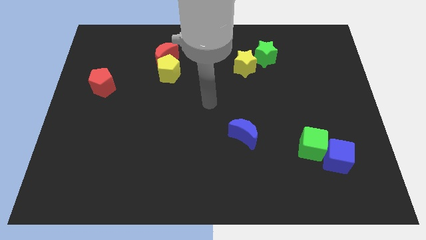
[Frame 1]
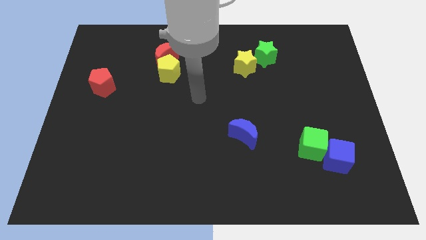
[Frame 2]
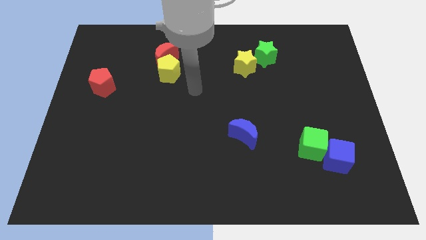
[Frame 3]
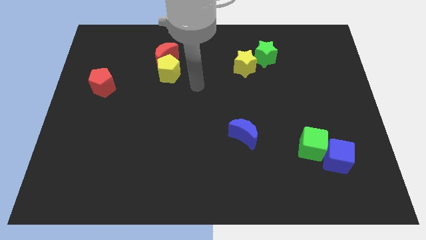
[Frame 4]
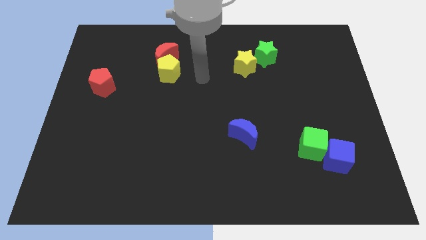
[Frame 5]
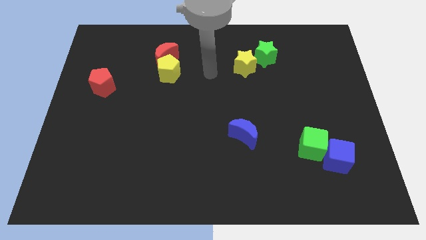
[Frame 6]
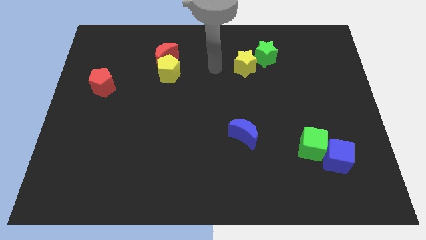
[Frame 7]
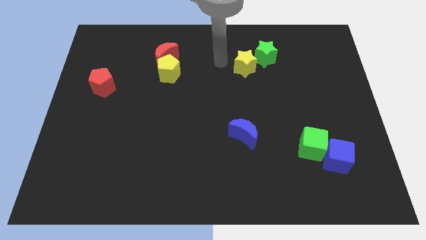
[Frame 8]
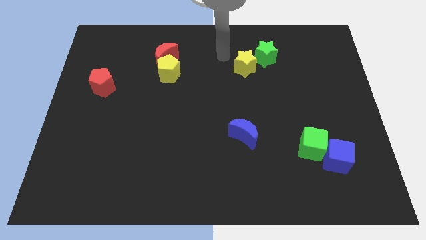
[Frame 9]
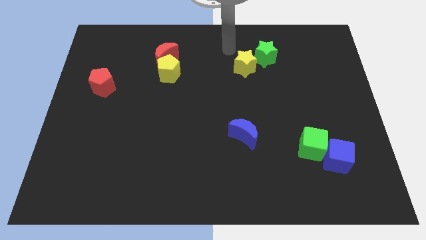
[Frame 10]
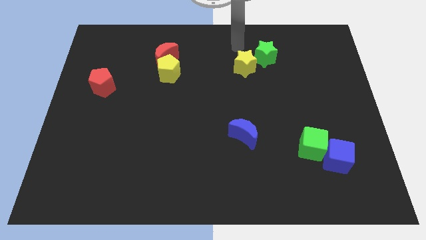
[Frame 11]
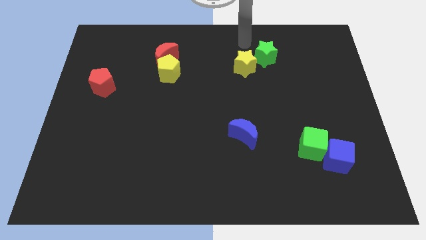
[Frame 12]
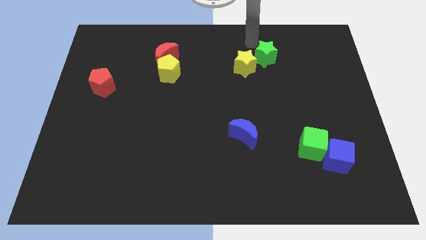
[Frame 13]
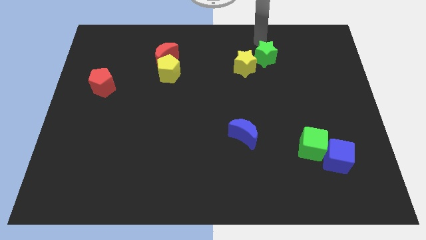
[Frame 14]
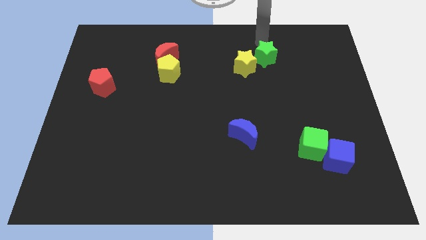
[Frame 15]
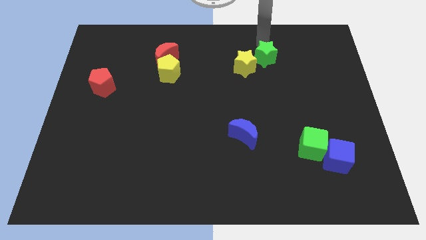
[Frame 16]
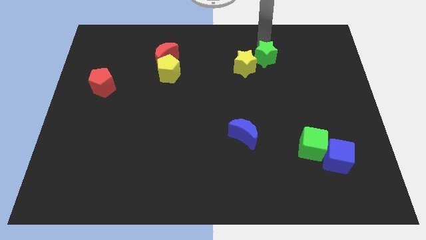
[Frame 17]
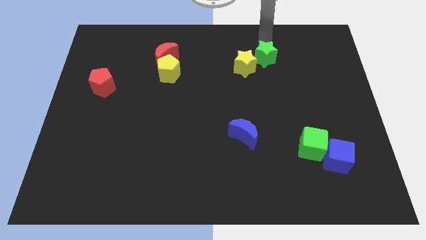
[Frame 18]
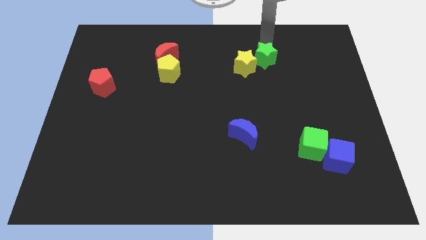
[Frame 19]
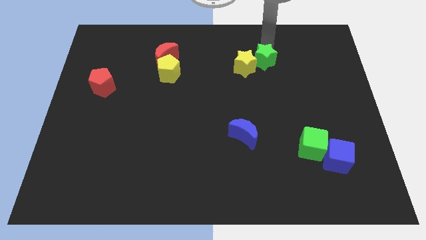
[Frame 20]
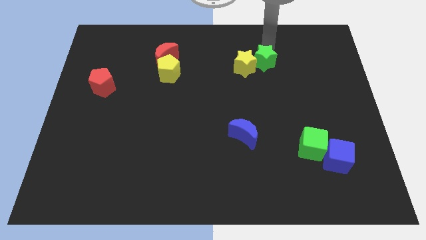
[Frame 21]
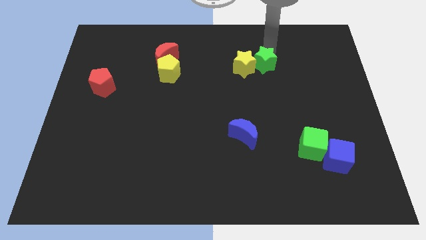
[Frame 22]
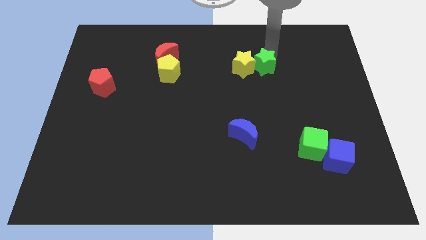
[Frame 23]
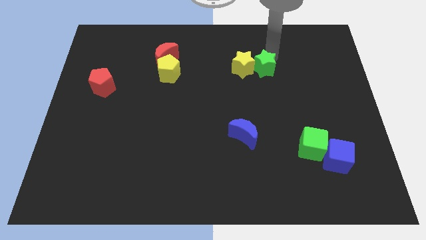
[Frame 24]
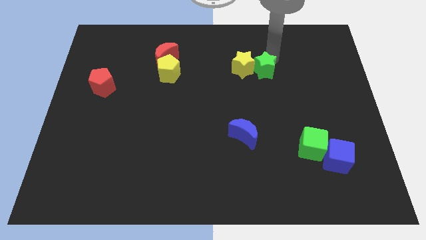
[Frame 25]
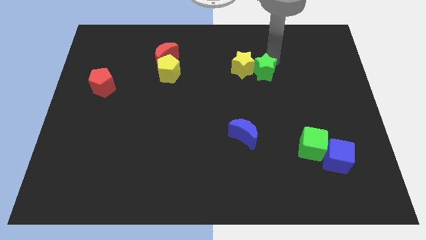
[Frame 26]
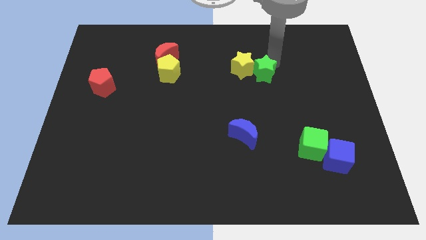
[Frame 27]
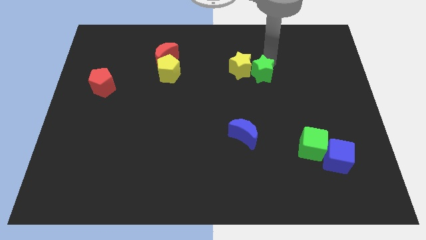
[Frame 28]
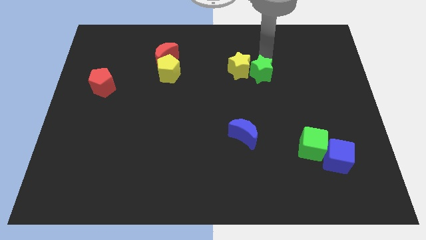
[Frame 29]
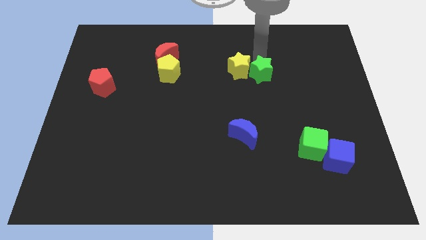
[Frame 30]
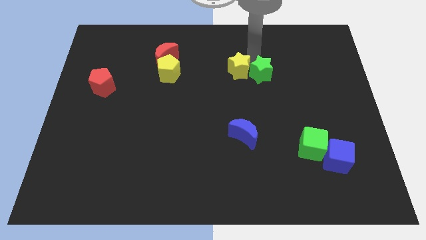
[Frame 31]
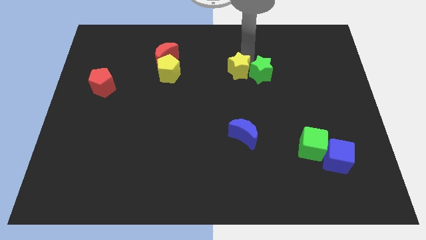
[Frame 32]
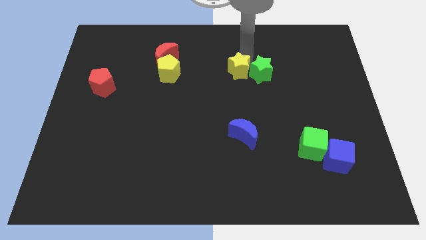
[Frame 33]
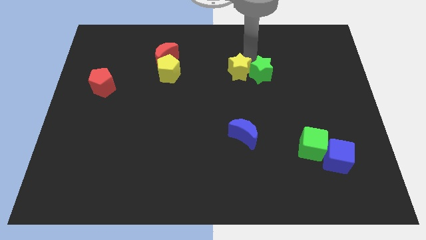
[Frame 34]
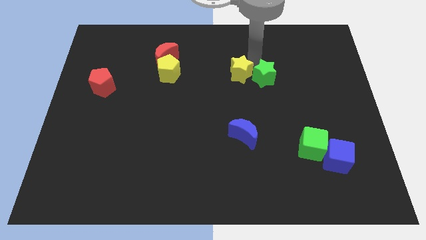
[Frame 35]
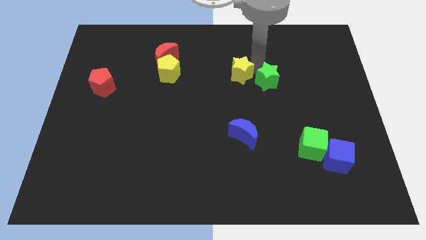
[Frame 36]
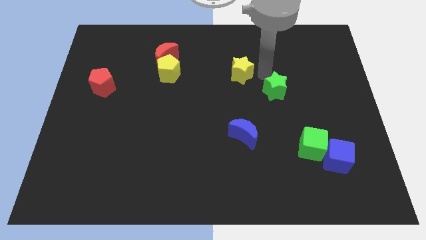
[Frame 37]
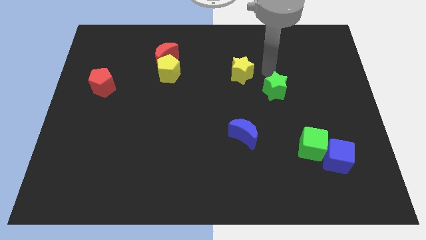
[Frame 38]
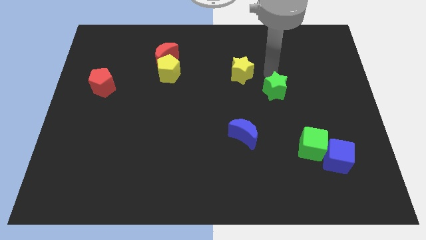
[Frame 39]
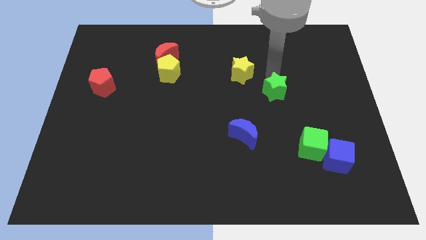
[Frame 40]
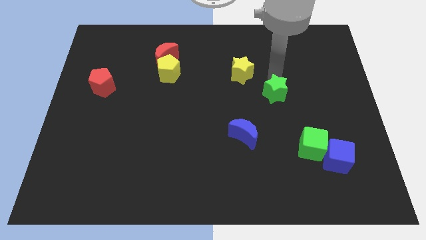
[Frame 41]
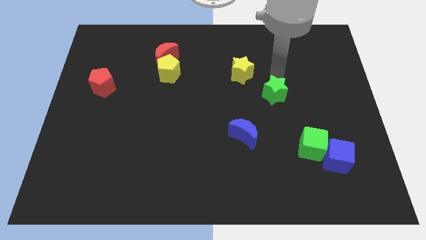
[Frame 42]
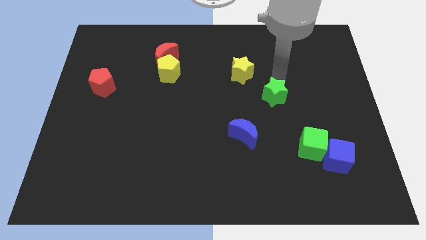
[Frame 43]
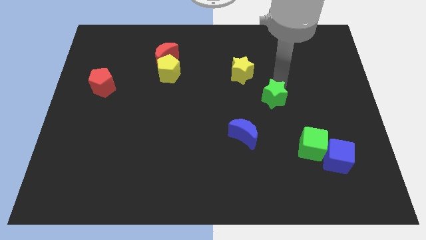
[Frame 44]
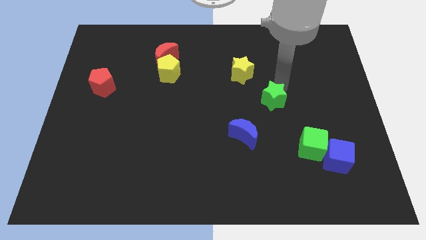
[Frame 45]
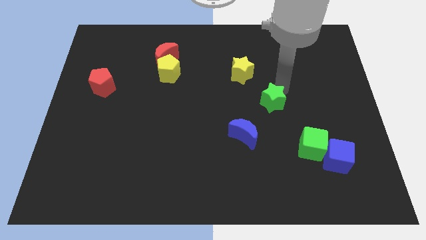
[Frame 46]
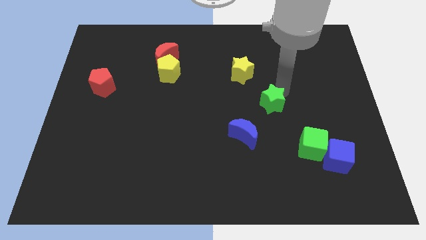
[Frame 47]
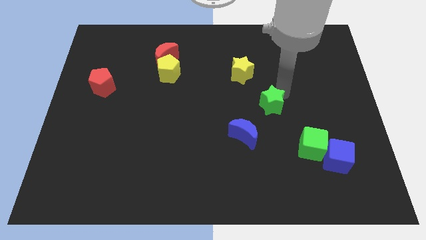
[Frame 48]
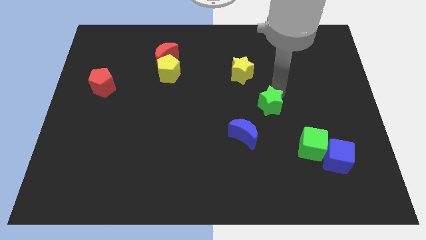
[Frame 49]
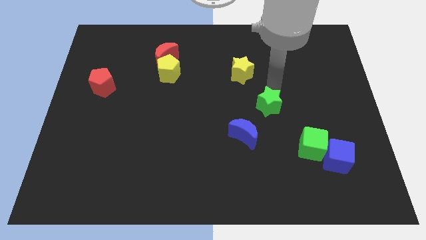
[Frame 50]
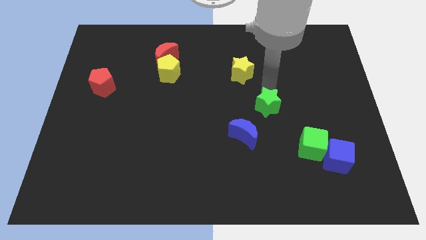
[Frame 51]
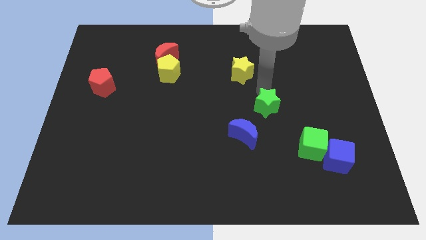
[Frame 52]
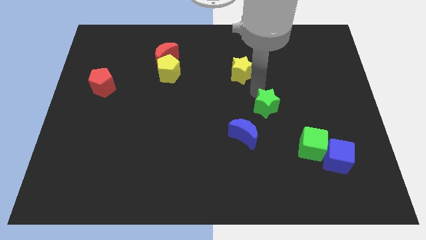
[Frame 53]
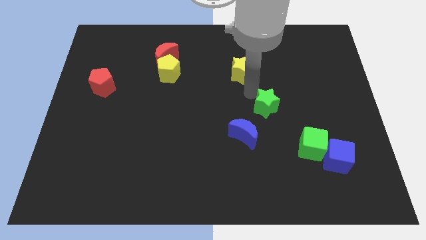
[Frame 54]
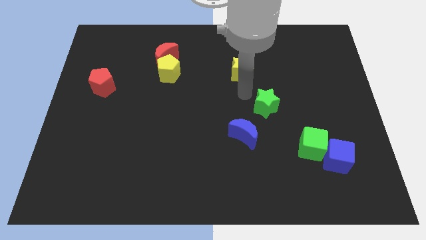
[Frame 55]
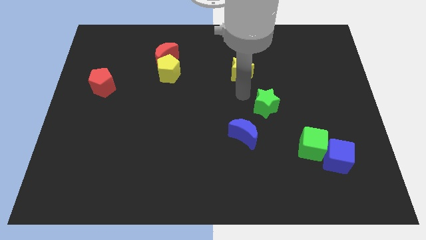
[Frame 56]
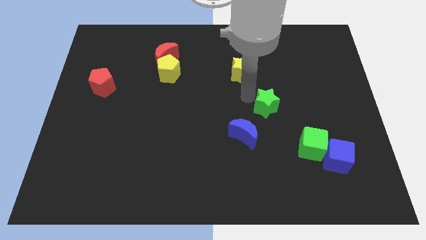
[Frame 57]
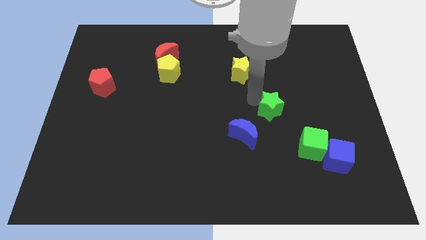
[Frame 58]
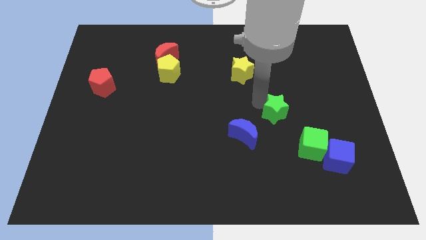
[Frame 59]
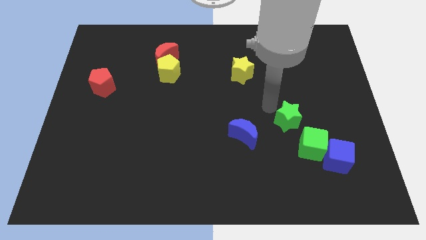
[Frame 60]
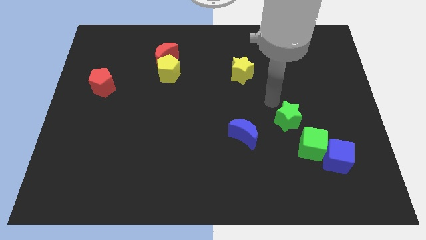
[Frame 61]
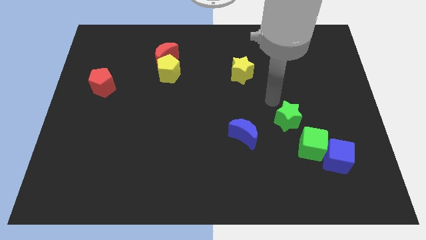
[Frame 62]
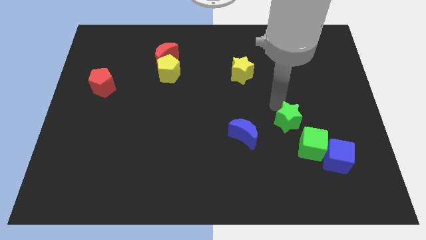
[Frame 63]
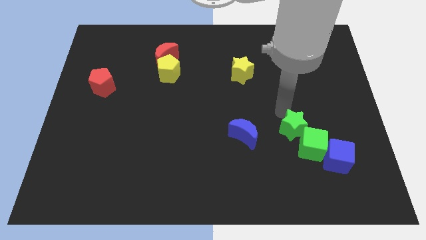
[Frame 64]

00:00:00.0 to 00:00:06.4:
put the green star close to the green cube

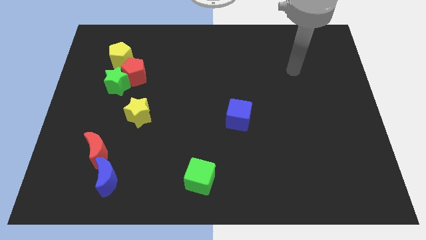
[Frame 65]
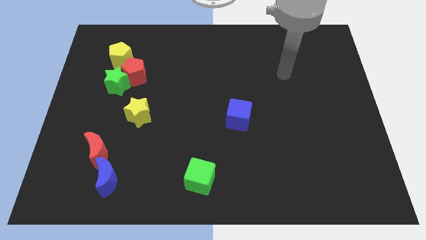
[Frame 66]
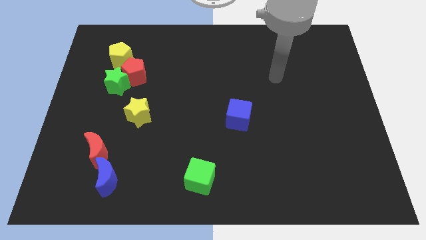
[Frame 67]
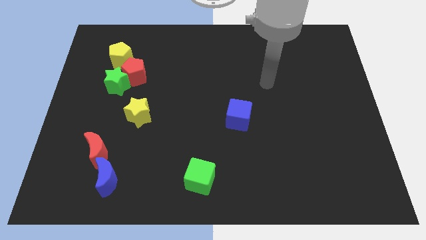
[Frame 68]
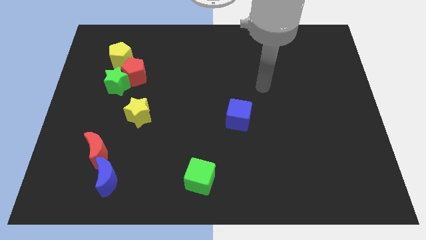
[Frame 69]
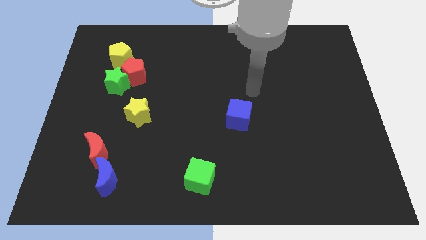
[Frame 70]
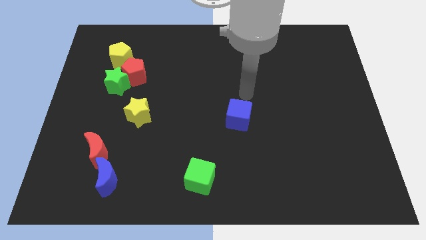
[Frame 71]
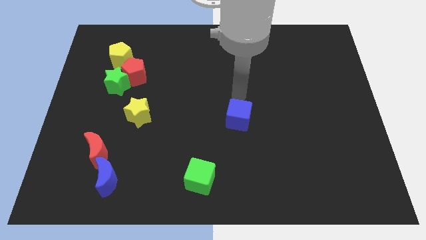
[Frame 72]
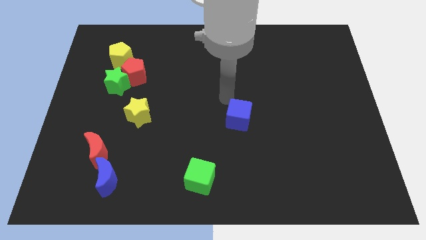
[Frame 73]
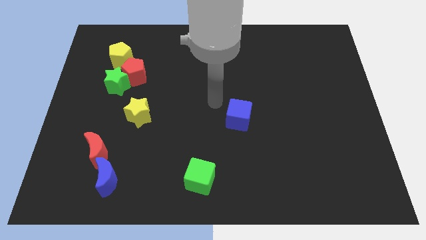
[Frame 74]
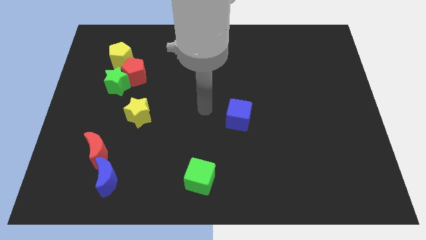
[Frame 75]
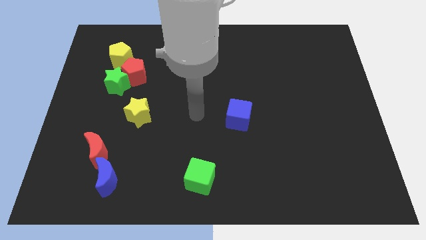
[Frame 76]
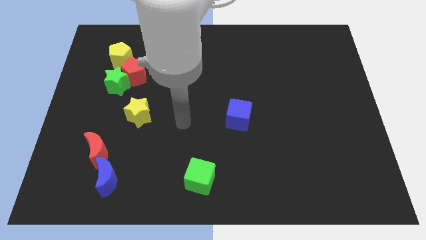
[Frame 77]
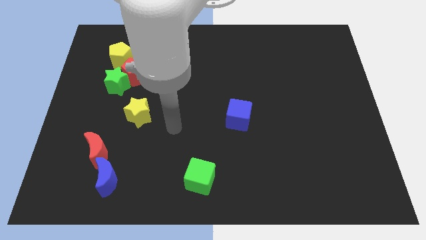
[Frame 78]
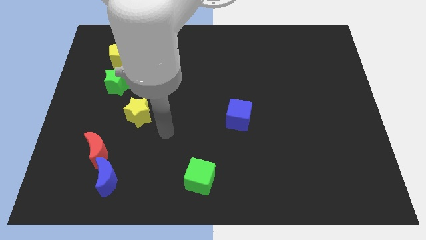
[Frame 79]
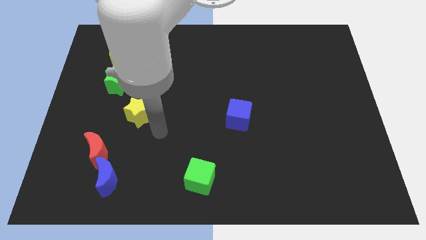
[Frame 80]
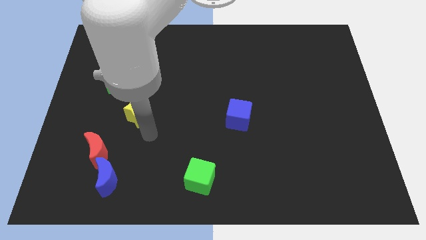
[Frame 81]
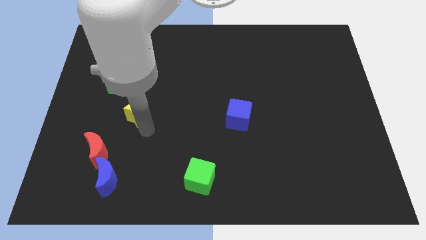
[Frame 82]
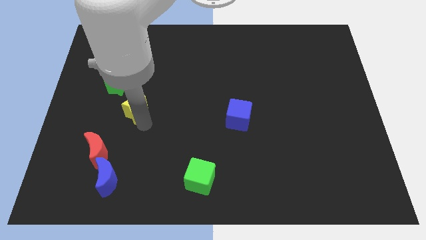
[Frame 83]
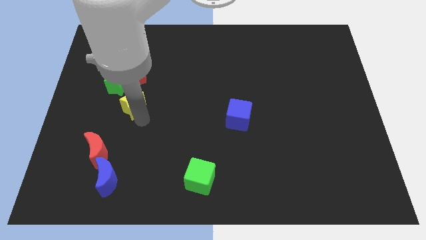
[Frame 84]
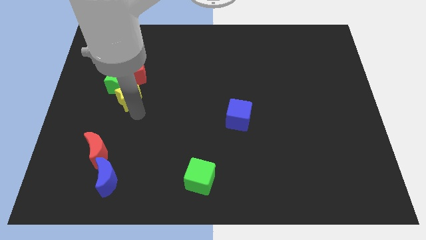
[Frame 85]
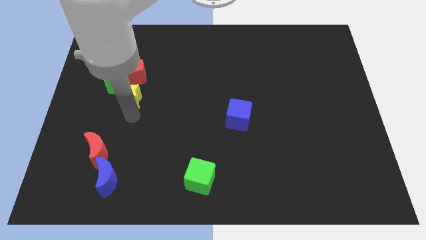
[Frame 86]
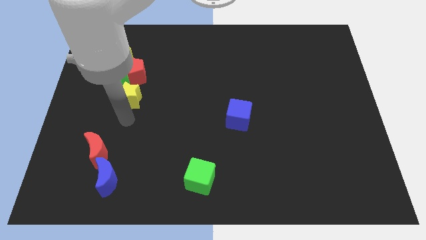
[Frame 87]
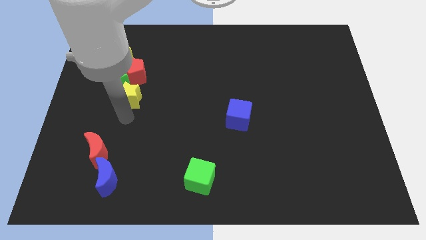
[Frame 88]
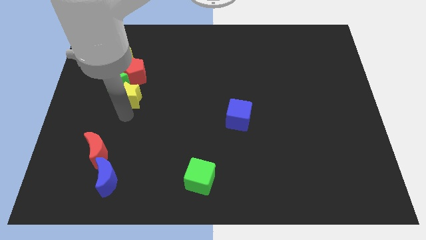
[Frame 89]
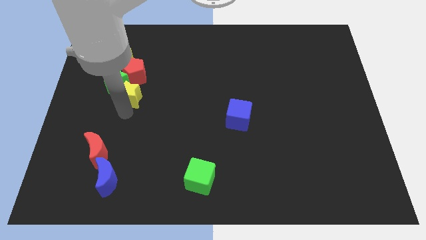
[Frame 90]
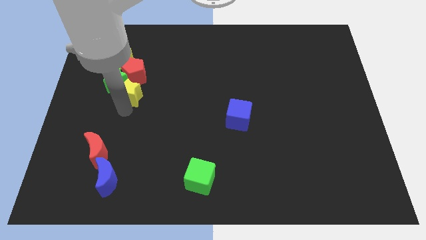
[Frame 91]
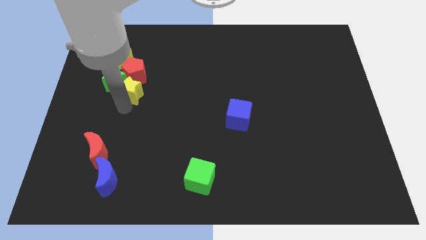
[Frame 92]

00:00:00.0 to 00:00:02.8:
slide the yellow star towards the red pentagon
